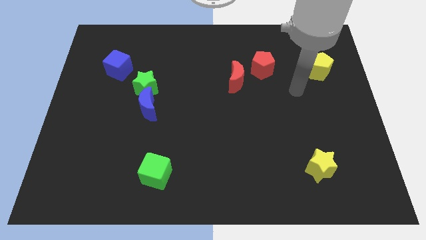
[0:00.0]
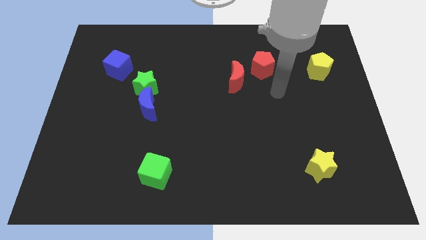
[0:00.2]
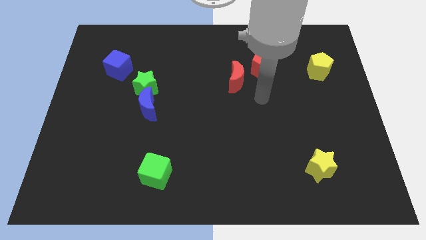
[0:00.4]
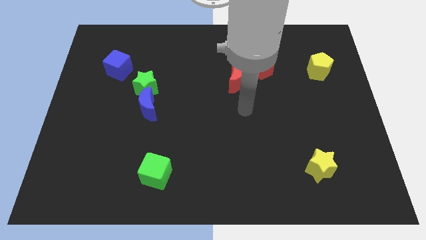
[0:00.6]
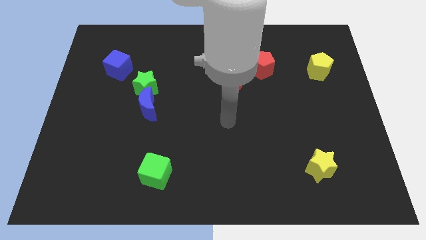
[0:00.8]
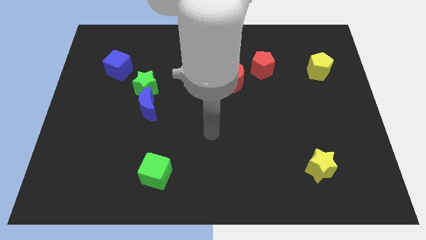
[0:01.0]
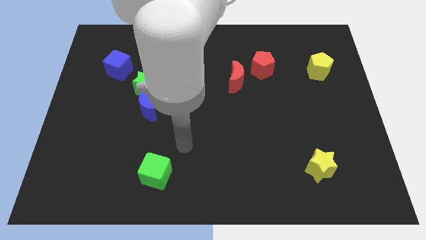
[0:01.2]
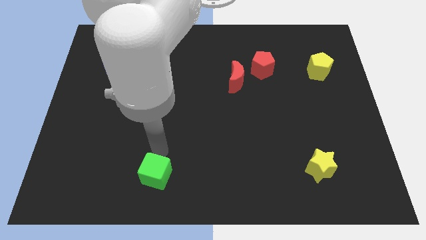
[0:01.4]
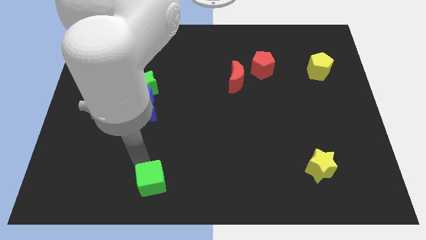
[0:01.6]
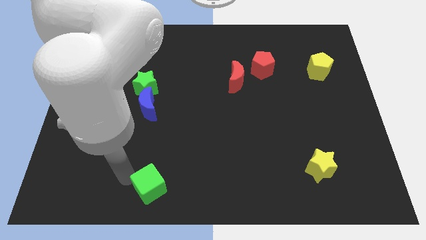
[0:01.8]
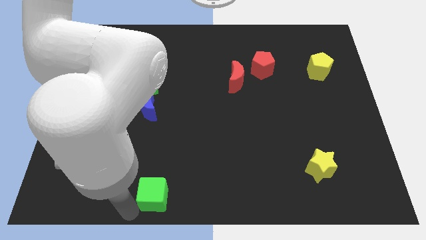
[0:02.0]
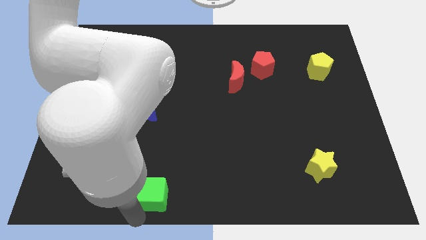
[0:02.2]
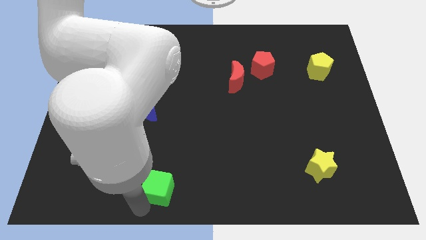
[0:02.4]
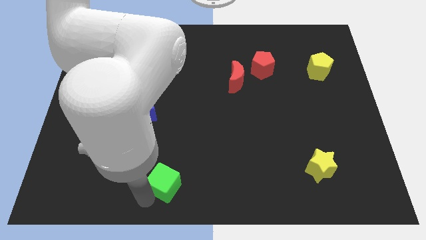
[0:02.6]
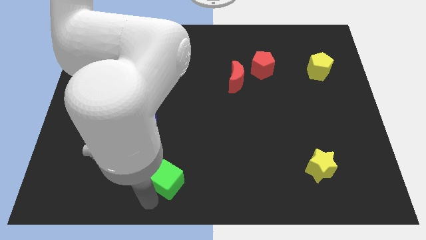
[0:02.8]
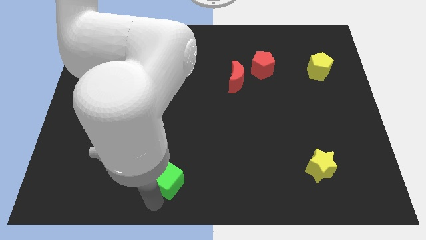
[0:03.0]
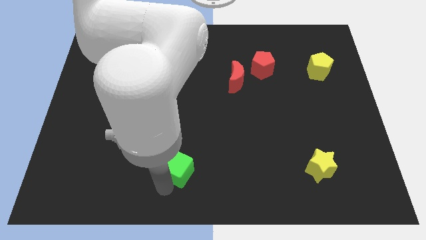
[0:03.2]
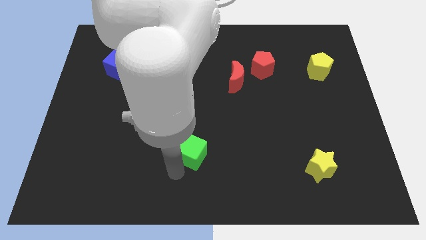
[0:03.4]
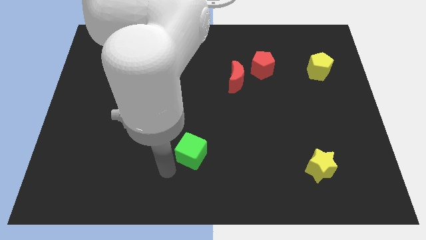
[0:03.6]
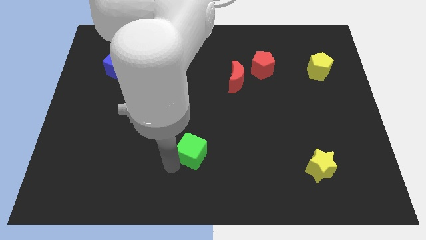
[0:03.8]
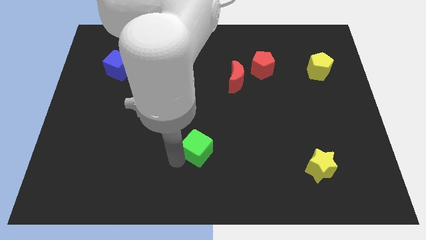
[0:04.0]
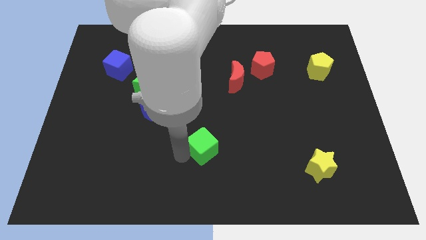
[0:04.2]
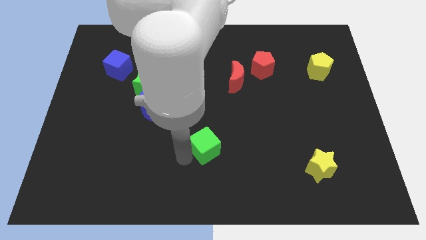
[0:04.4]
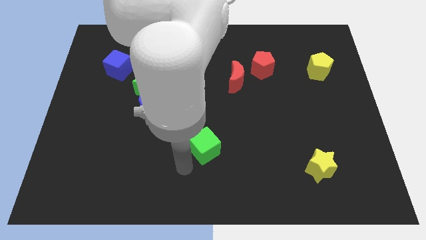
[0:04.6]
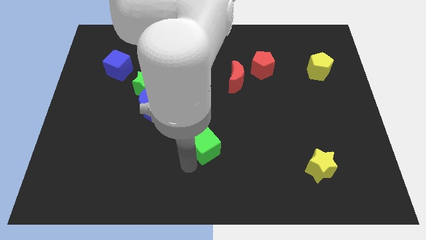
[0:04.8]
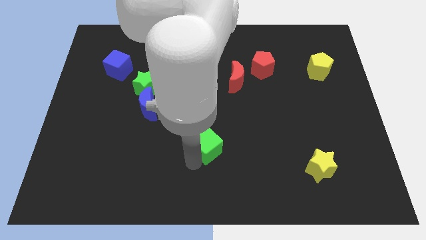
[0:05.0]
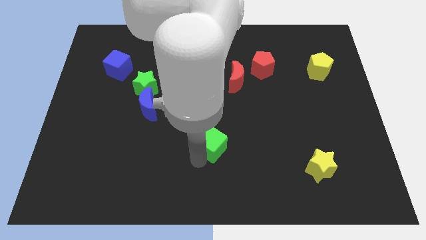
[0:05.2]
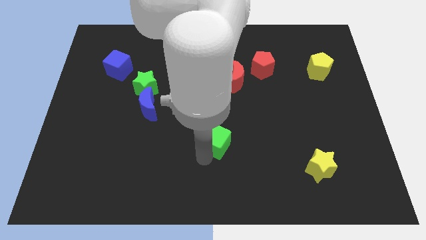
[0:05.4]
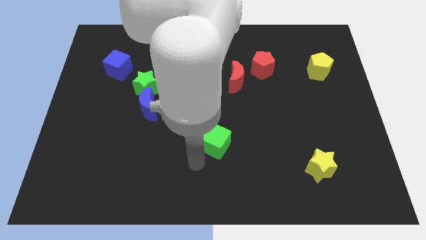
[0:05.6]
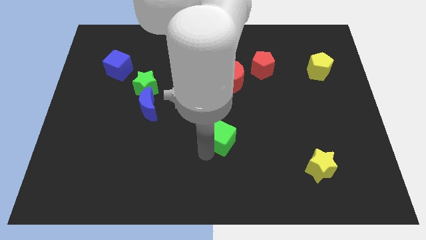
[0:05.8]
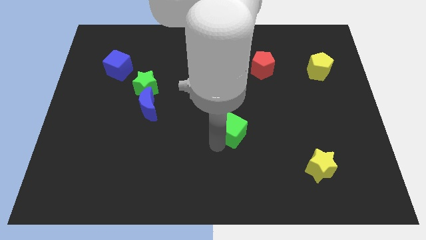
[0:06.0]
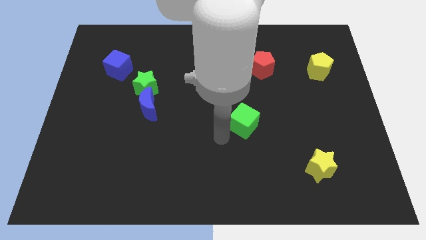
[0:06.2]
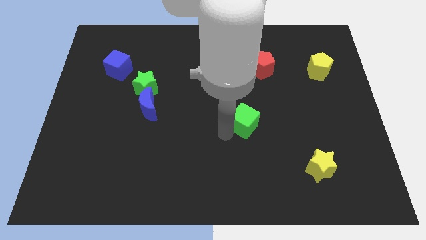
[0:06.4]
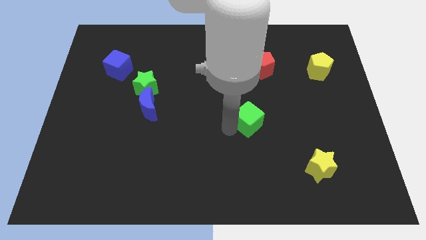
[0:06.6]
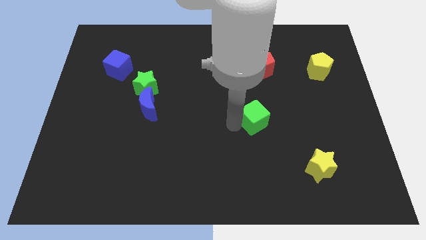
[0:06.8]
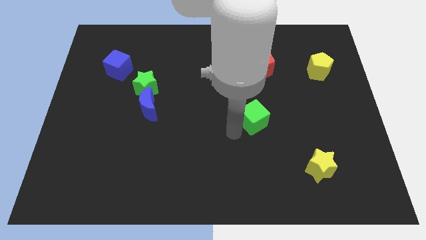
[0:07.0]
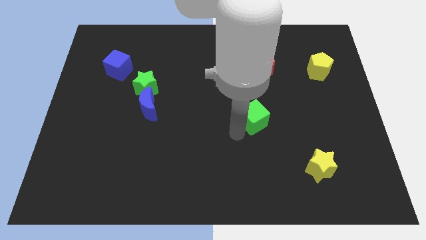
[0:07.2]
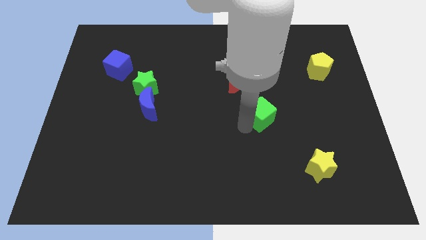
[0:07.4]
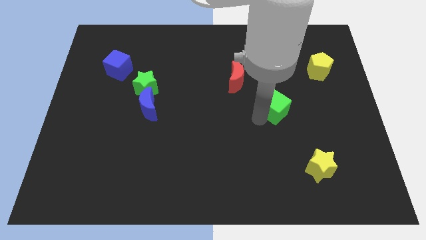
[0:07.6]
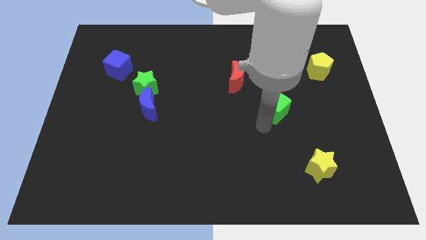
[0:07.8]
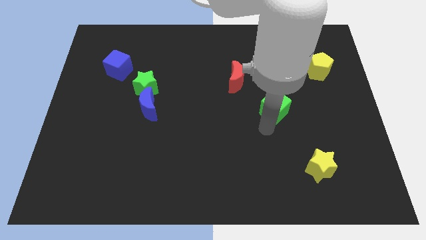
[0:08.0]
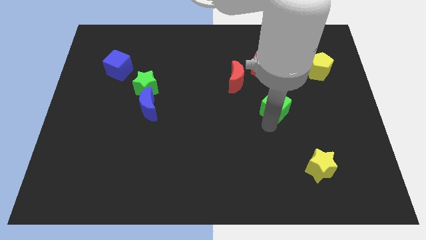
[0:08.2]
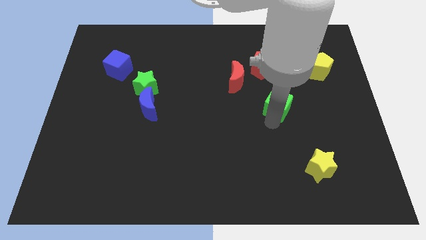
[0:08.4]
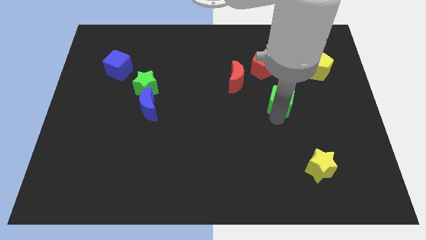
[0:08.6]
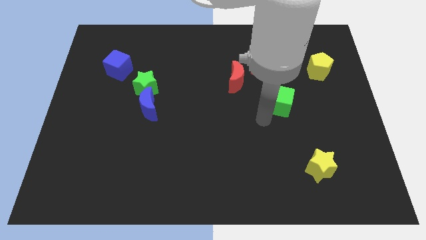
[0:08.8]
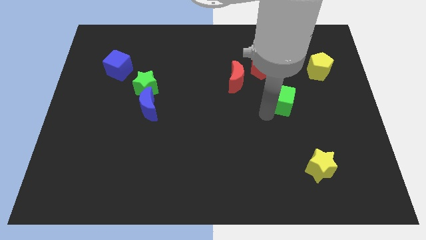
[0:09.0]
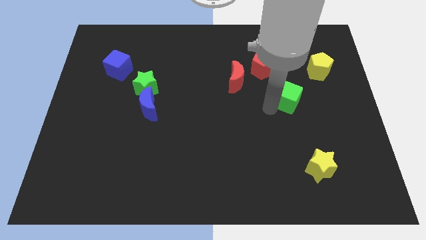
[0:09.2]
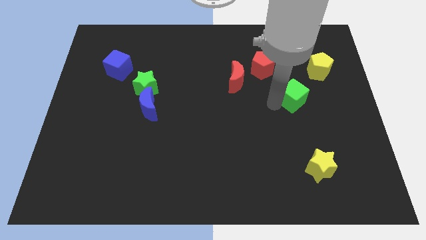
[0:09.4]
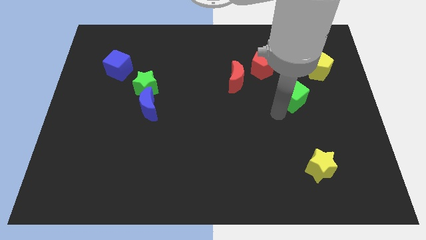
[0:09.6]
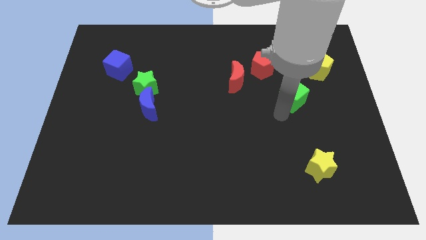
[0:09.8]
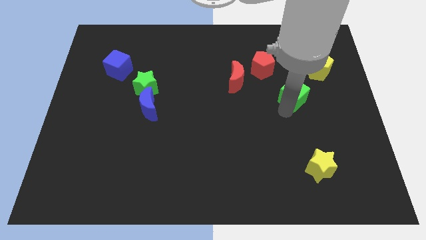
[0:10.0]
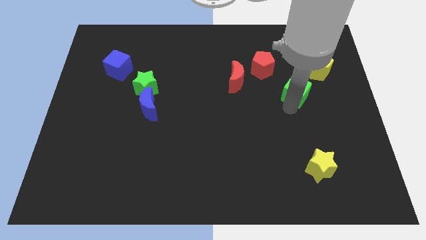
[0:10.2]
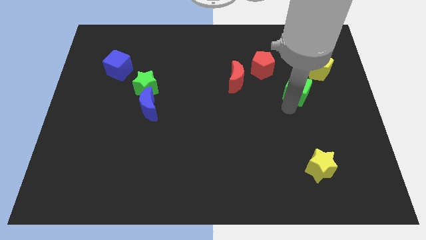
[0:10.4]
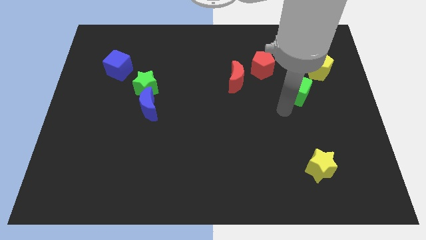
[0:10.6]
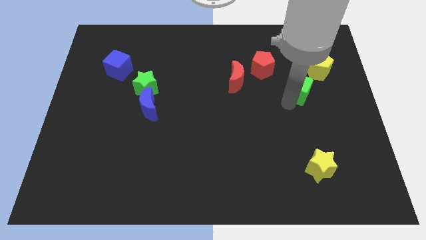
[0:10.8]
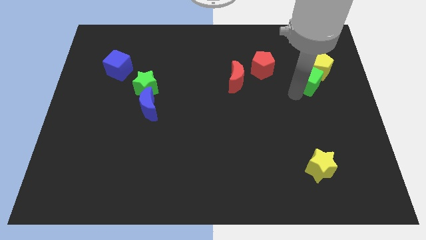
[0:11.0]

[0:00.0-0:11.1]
push the green cube towards the yellow pentagon

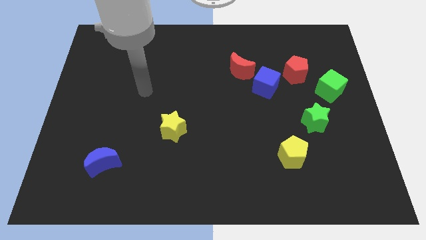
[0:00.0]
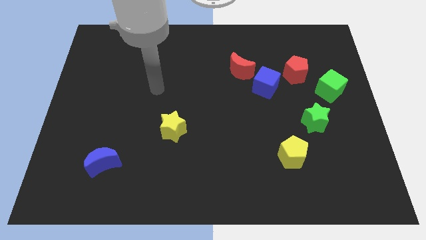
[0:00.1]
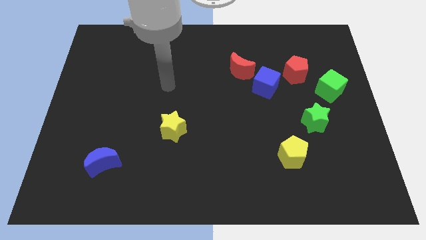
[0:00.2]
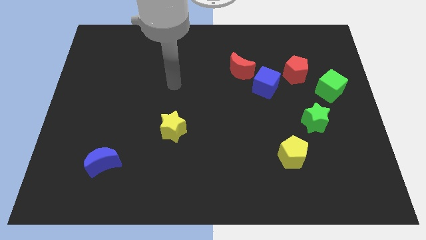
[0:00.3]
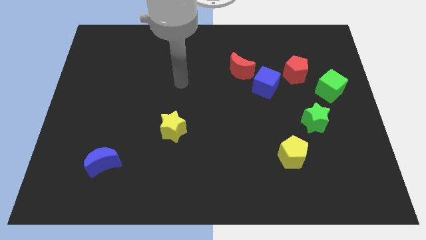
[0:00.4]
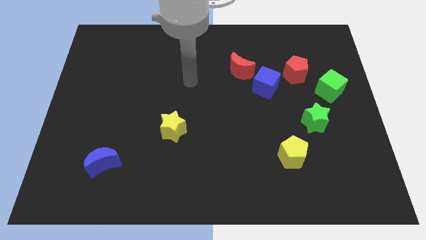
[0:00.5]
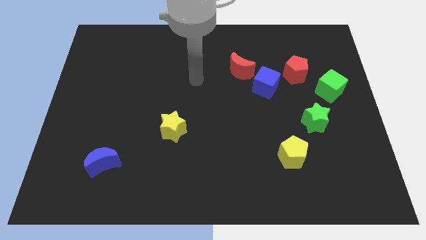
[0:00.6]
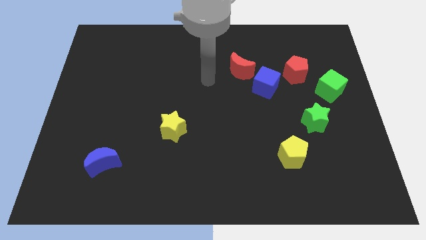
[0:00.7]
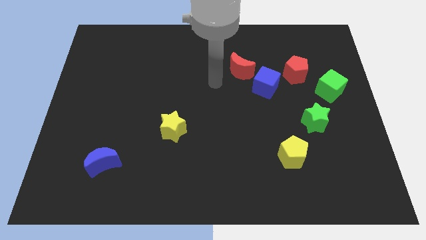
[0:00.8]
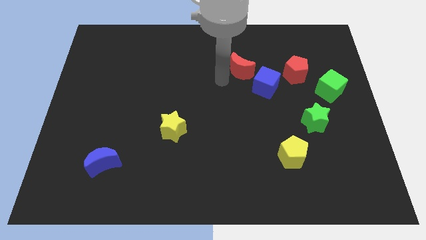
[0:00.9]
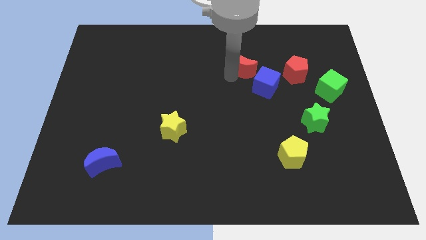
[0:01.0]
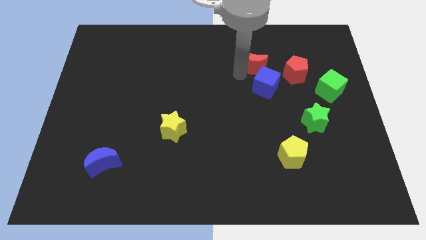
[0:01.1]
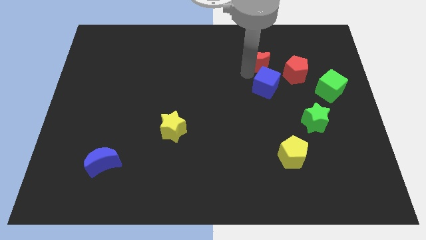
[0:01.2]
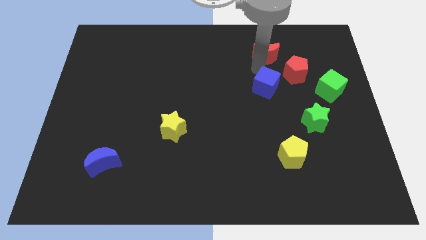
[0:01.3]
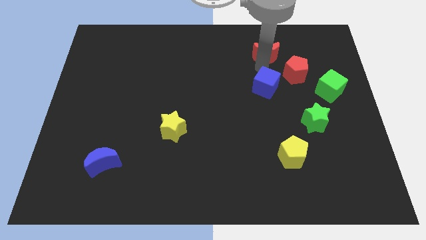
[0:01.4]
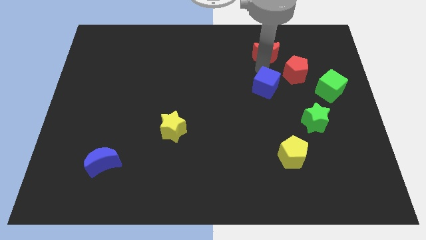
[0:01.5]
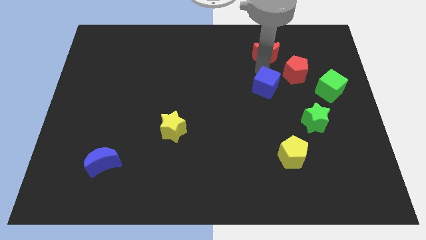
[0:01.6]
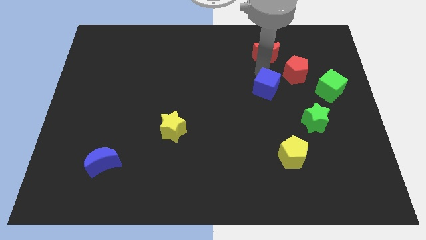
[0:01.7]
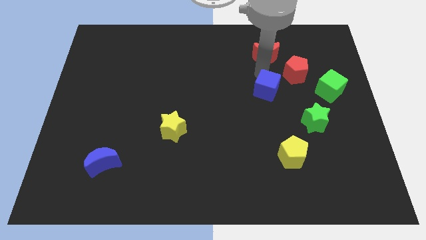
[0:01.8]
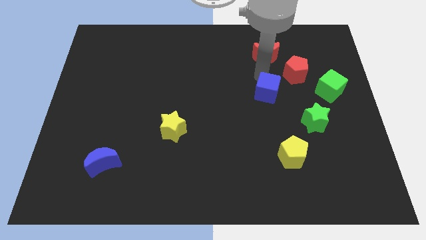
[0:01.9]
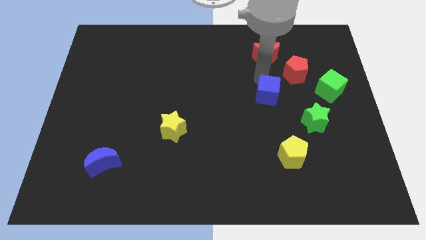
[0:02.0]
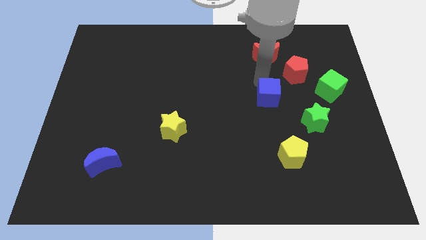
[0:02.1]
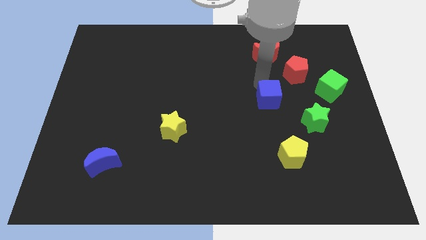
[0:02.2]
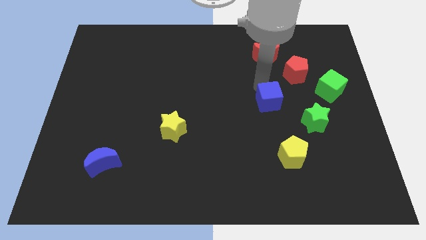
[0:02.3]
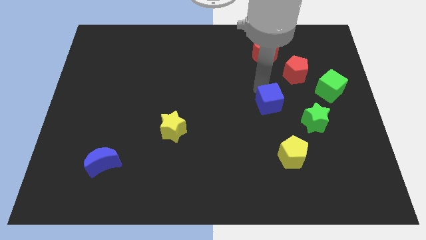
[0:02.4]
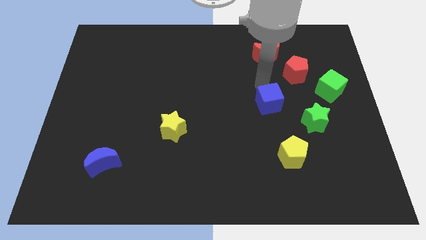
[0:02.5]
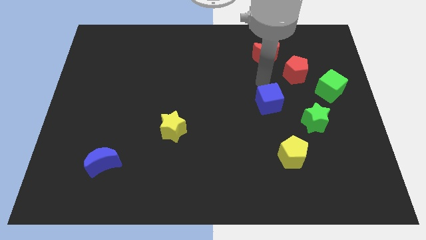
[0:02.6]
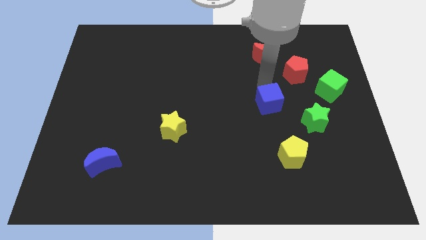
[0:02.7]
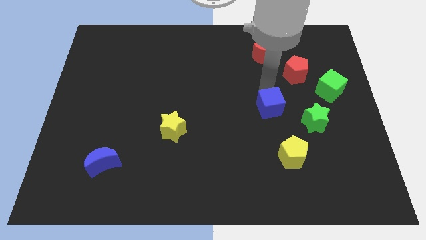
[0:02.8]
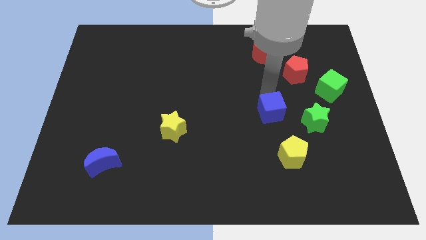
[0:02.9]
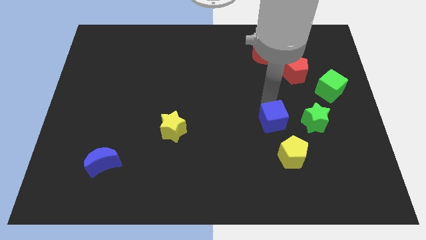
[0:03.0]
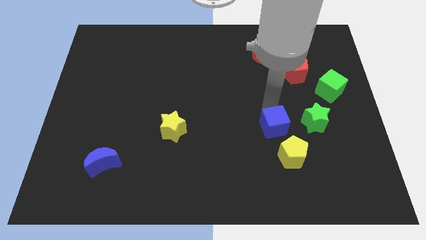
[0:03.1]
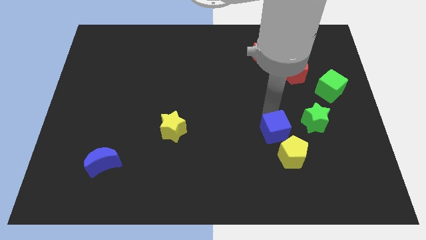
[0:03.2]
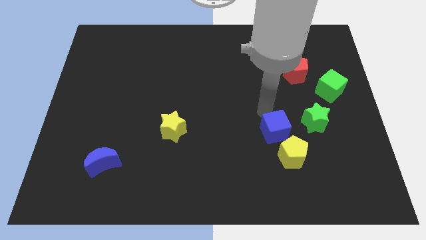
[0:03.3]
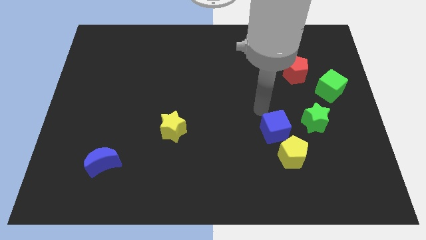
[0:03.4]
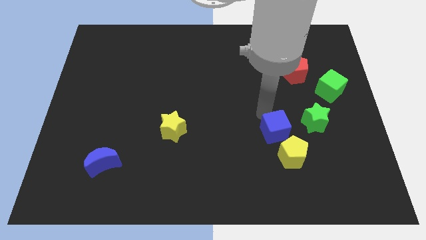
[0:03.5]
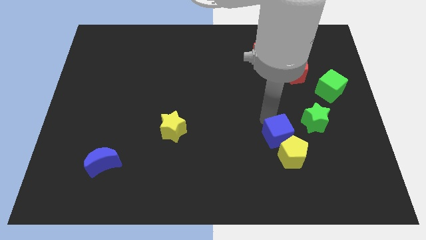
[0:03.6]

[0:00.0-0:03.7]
move the blue cube to the yellow pentagon
